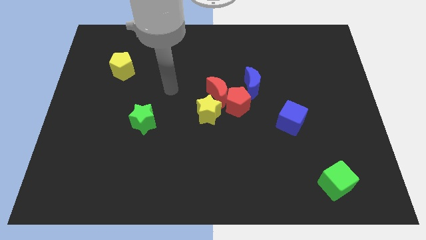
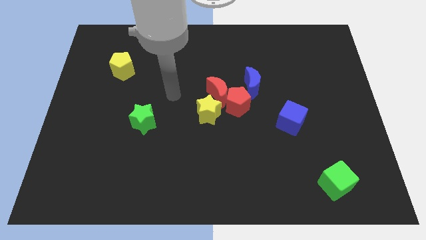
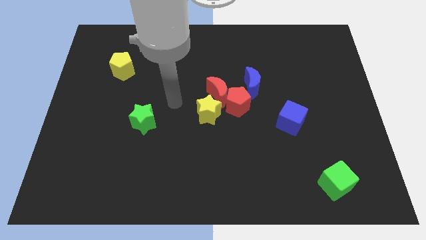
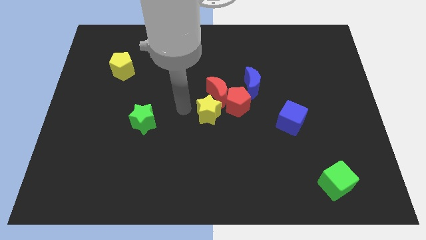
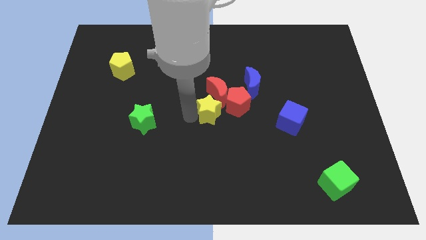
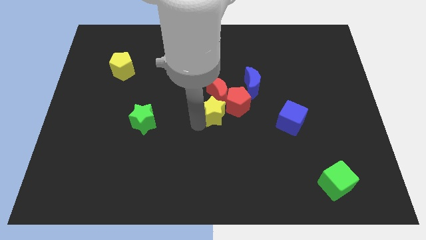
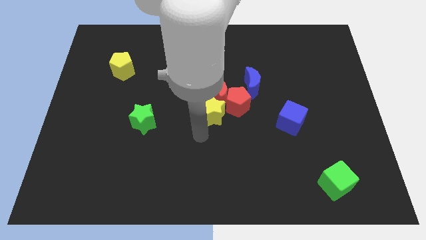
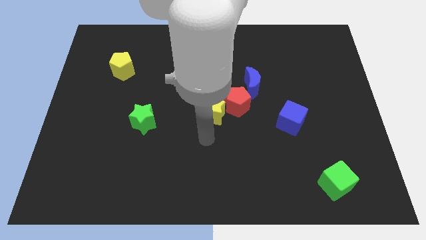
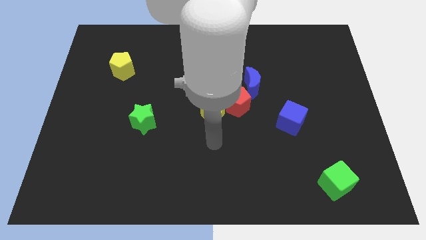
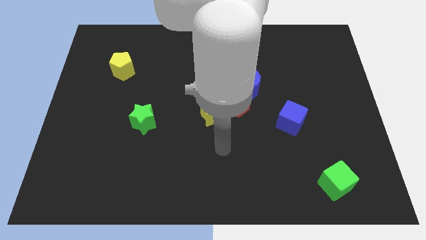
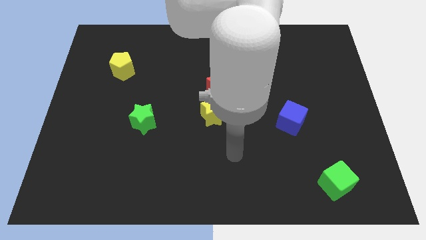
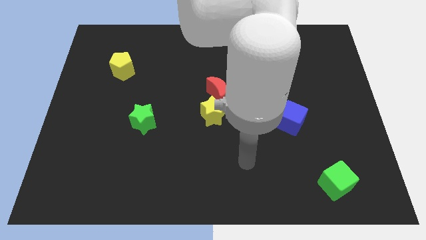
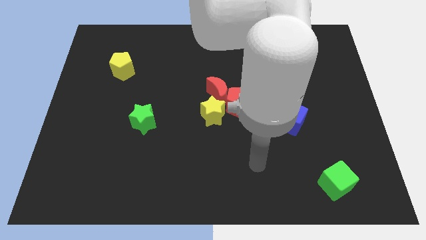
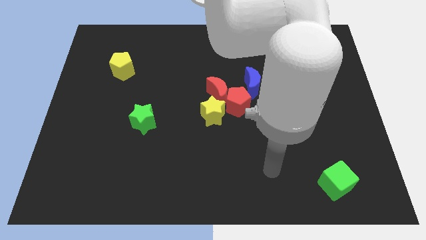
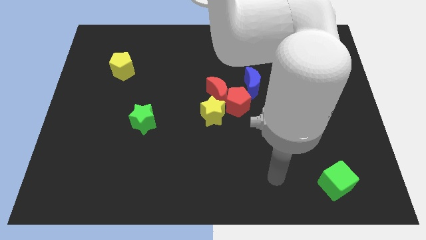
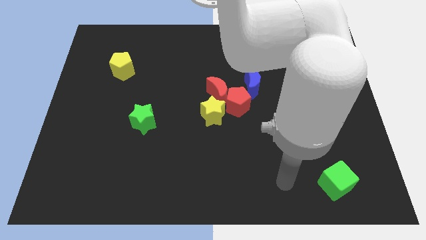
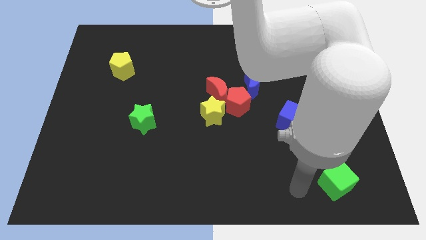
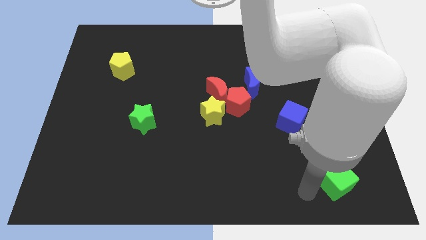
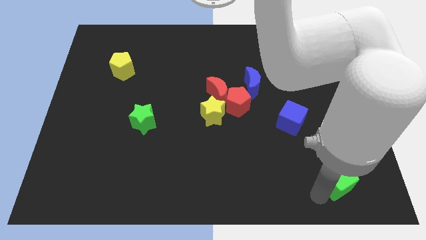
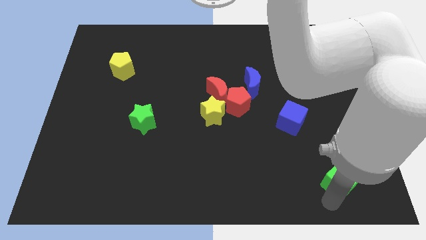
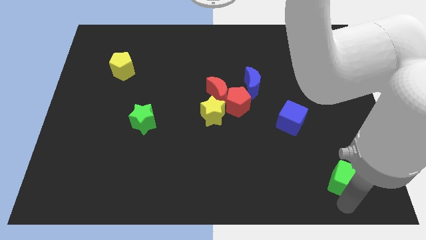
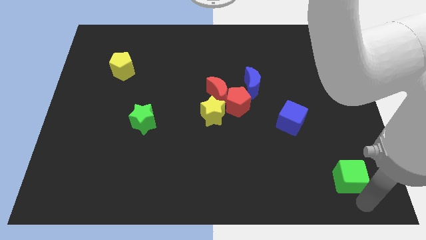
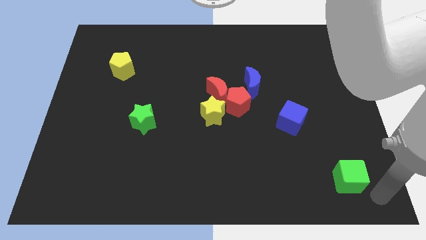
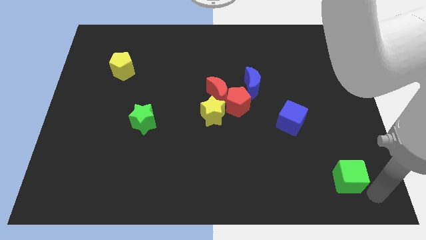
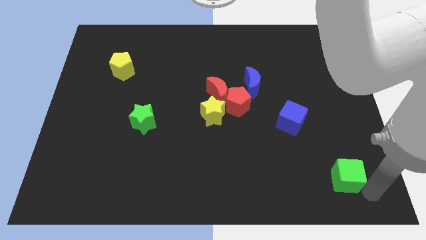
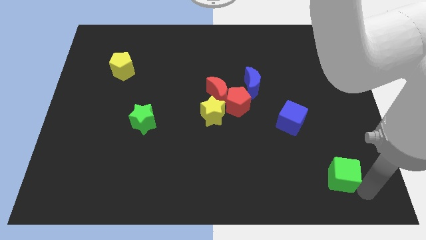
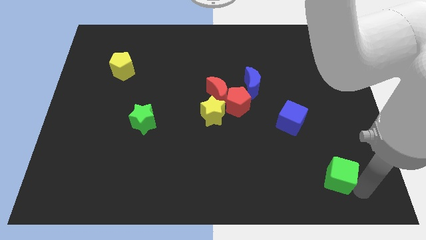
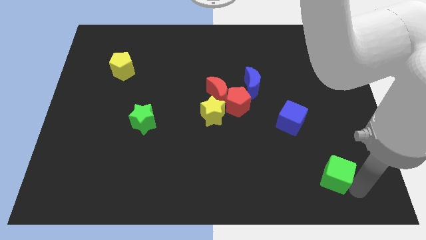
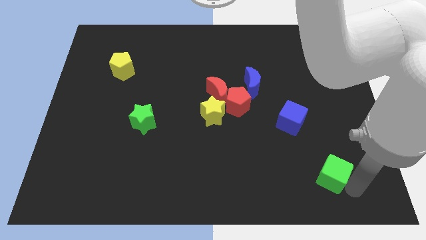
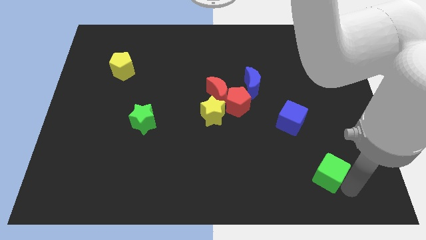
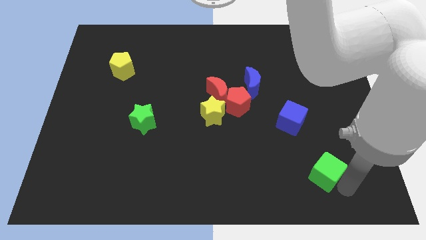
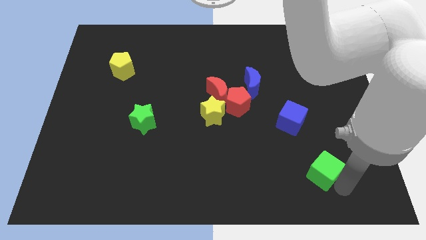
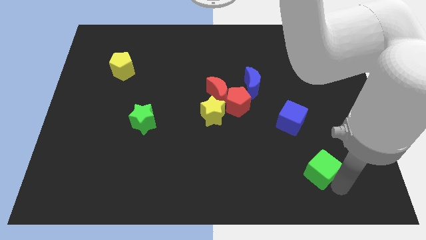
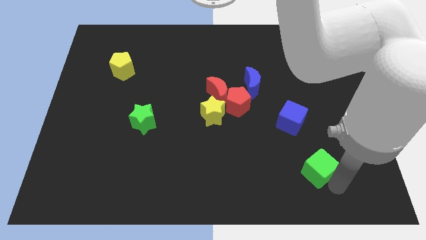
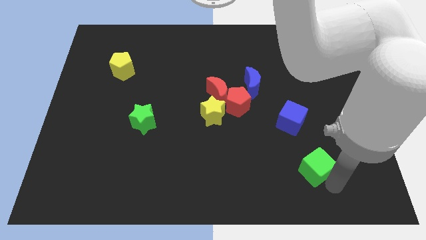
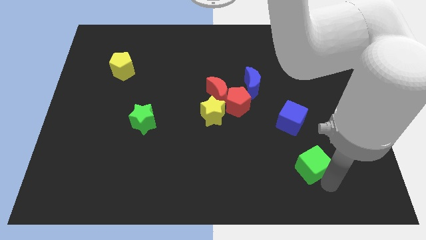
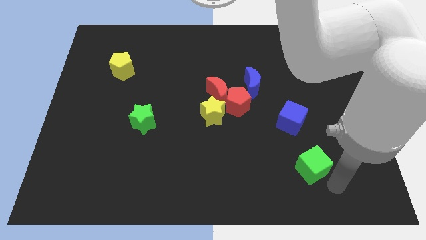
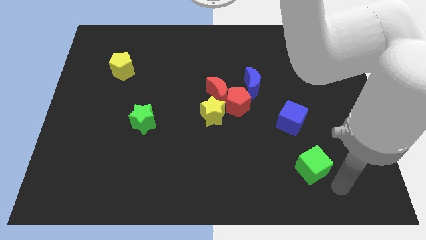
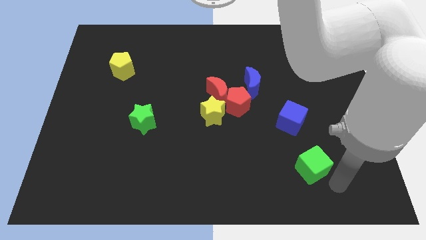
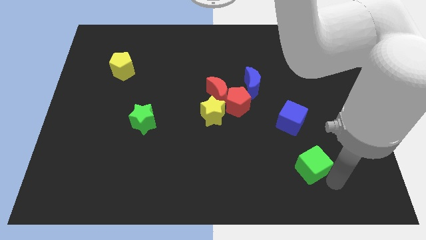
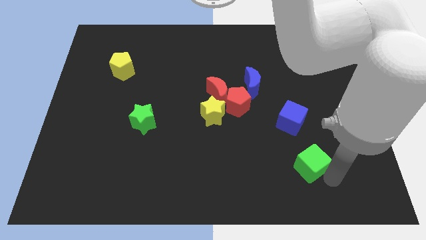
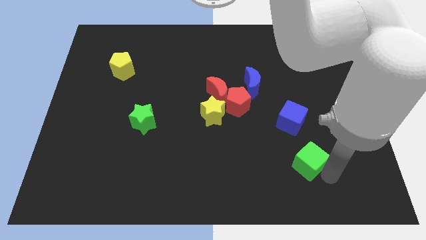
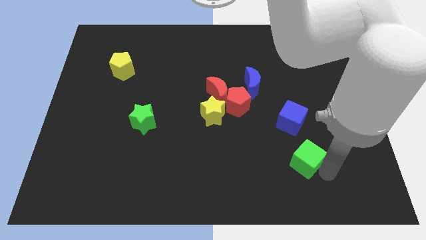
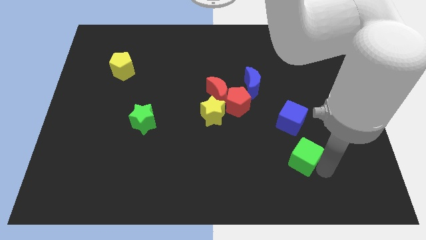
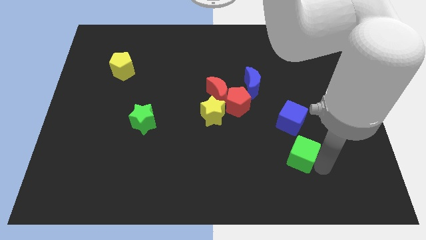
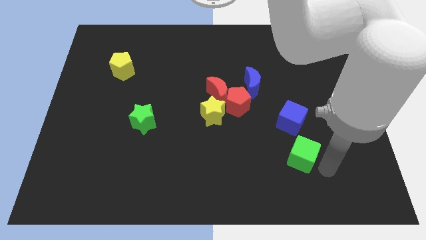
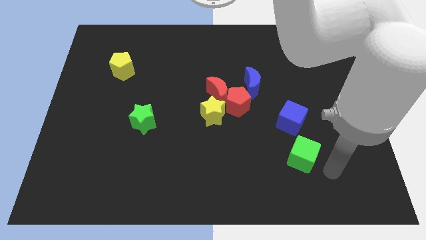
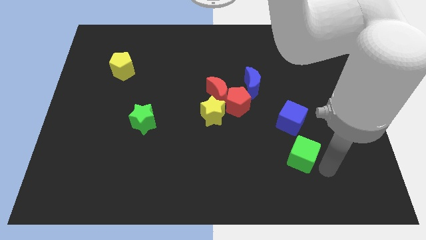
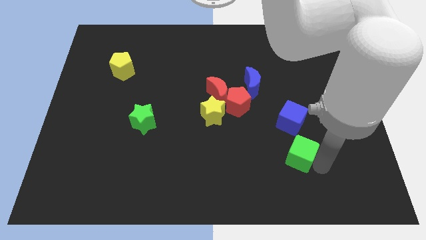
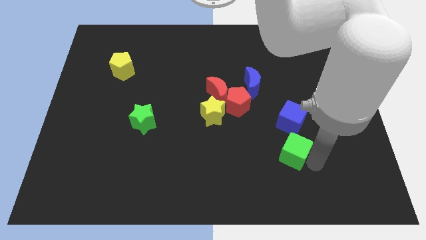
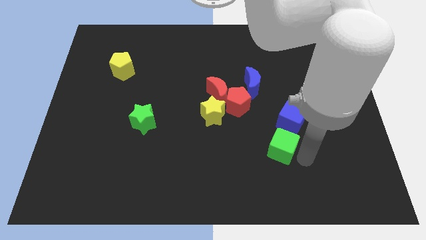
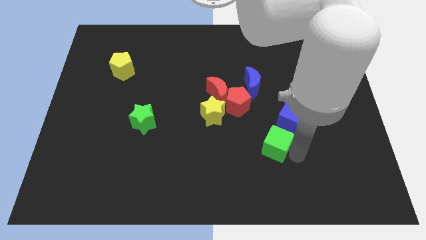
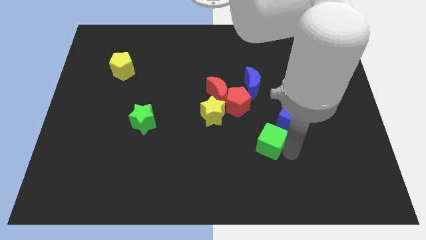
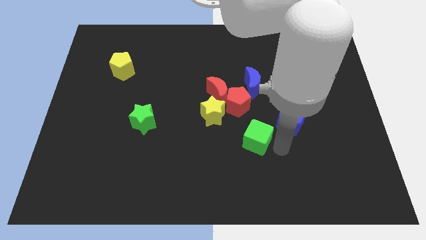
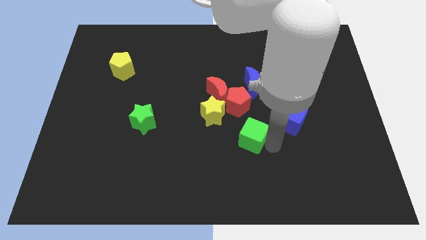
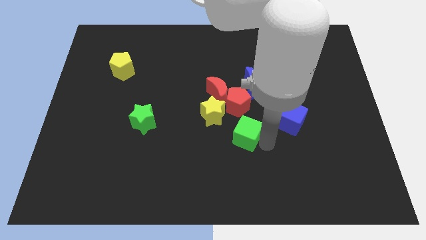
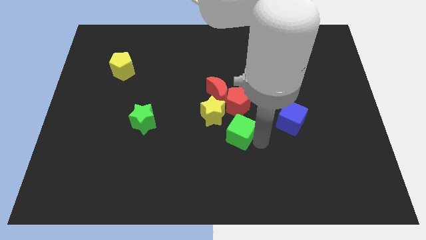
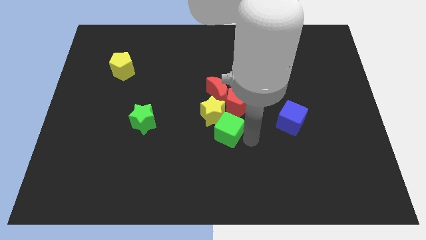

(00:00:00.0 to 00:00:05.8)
put the green cube close to the yellow star

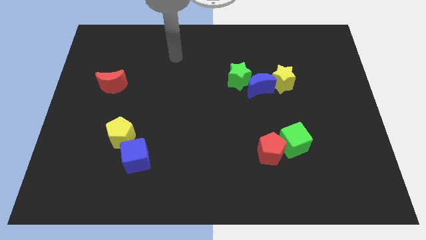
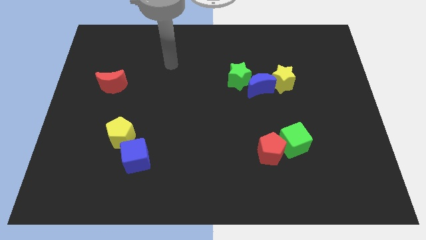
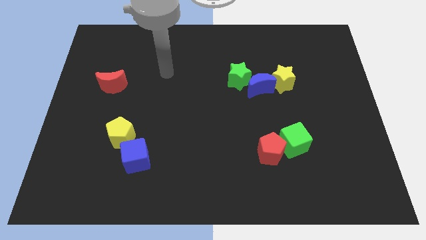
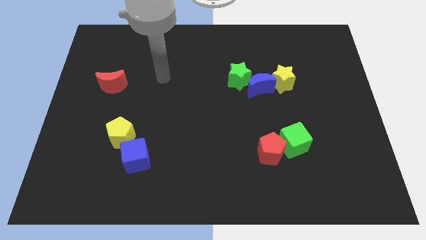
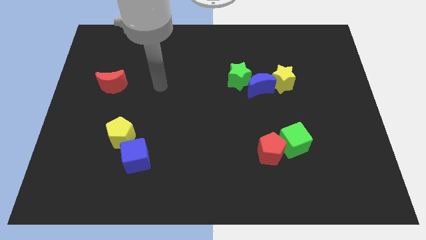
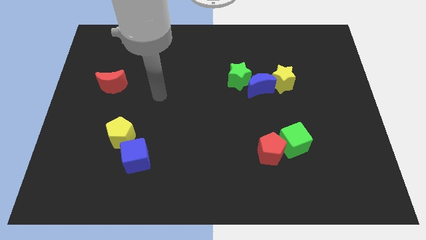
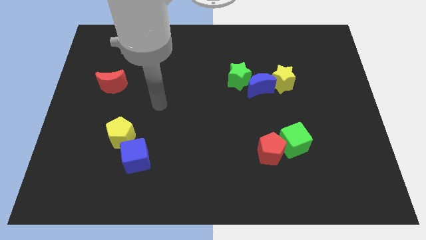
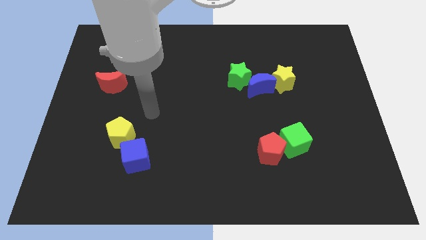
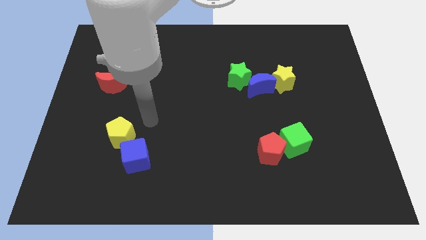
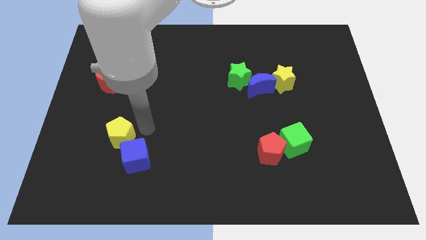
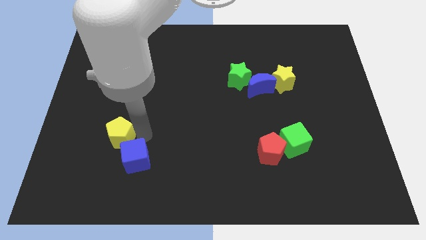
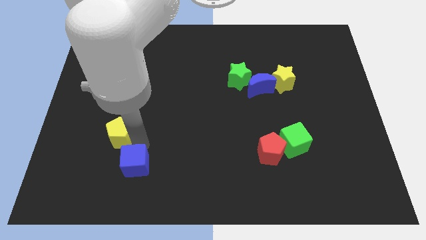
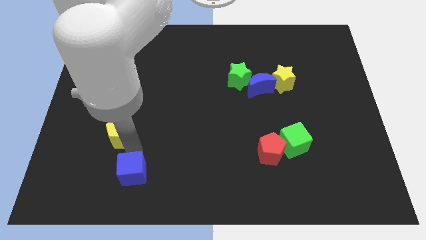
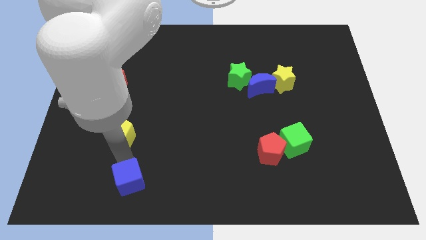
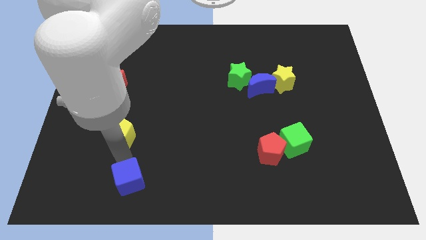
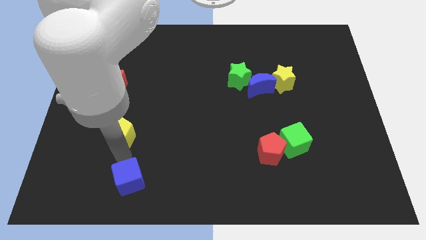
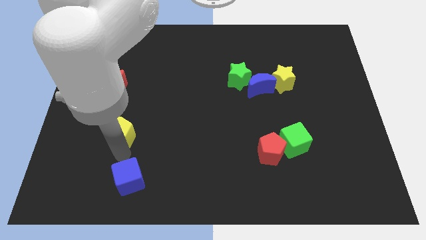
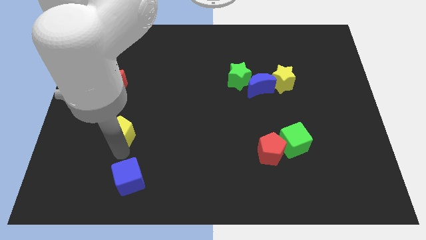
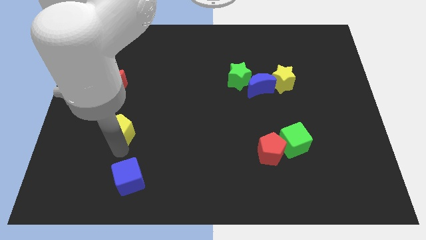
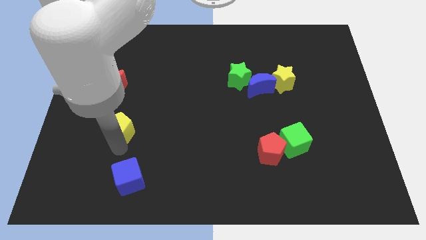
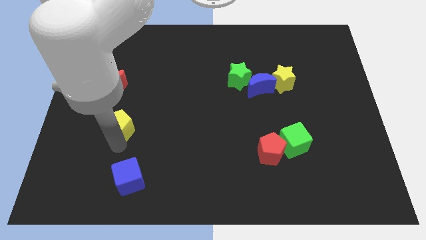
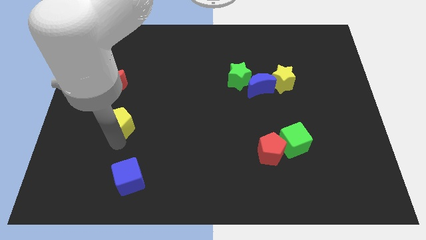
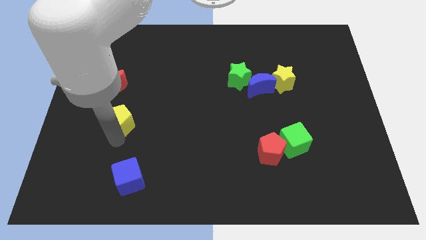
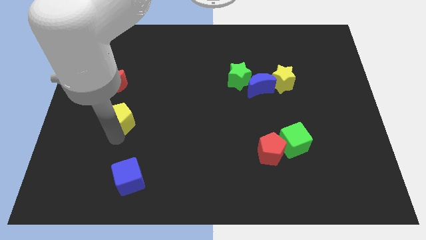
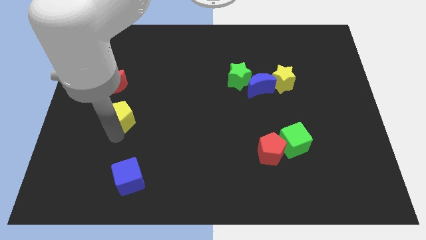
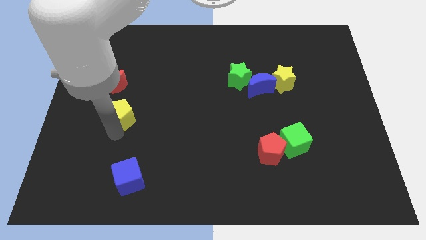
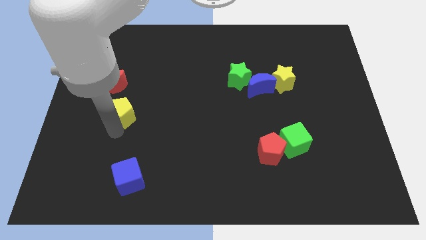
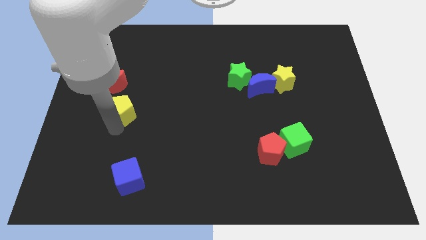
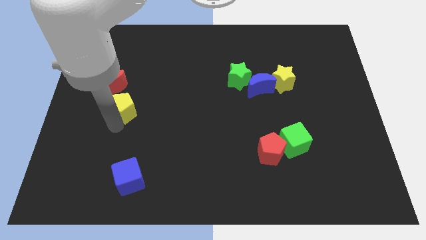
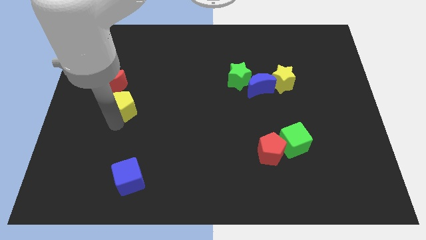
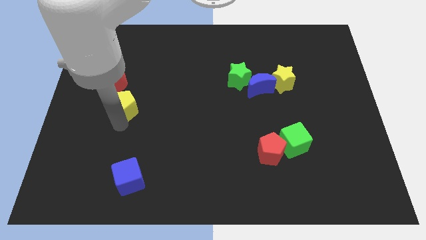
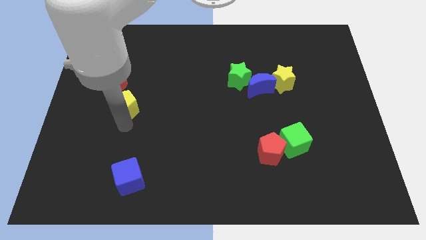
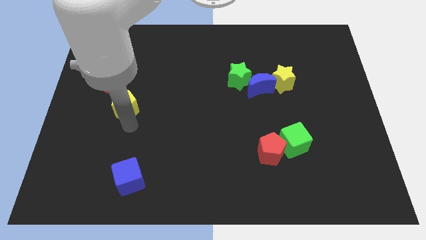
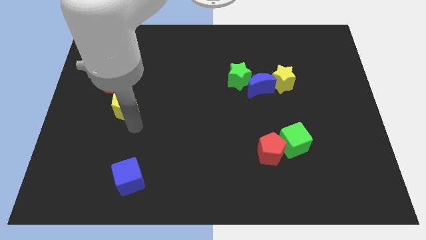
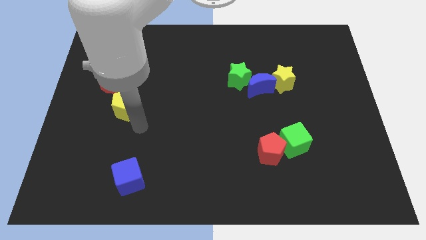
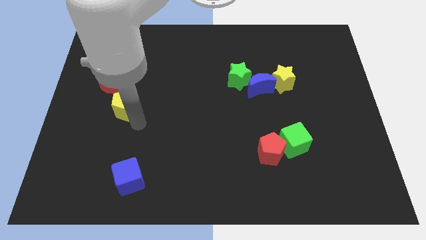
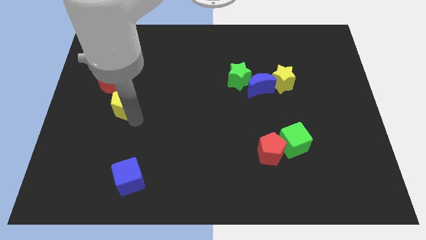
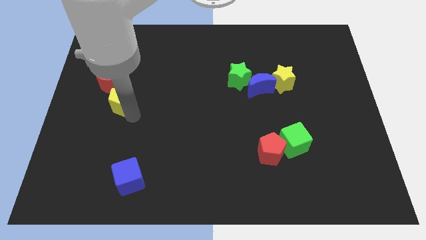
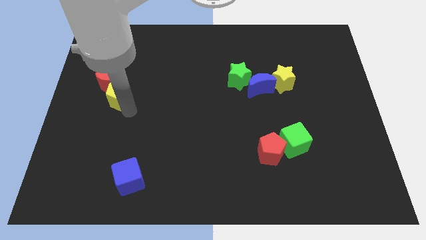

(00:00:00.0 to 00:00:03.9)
push the yellow pentagon close to the red moon
